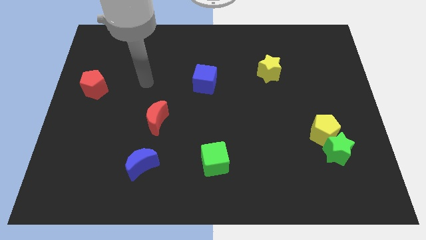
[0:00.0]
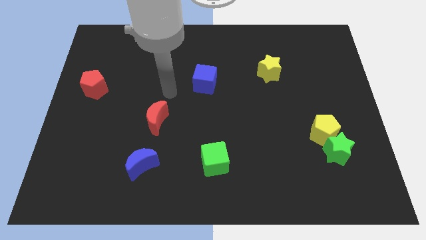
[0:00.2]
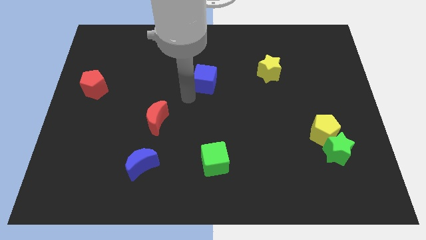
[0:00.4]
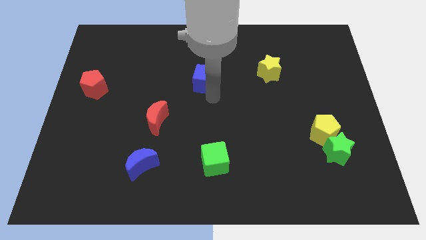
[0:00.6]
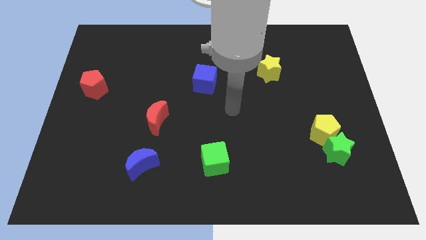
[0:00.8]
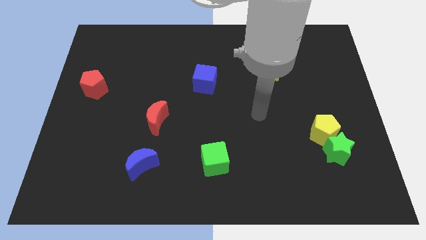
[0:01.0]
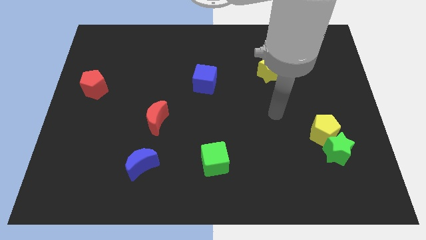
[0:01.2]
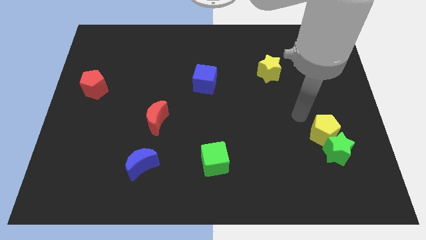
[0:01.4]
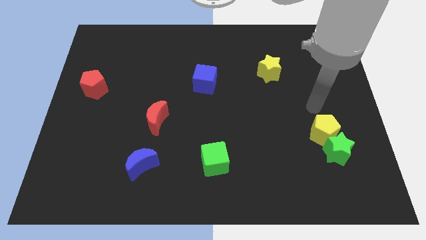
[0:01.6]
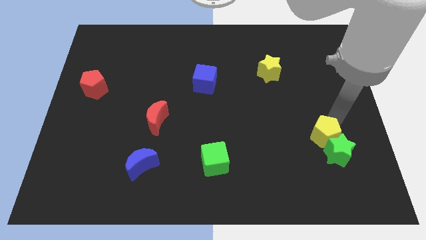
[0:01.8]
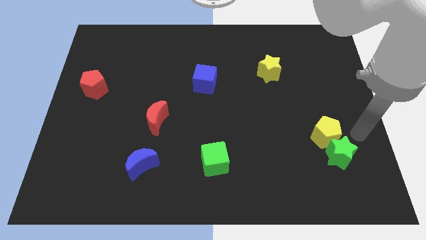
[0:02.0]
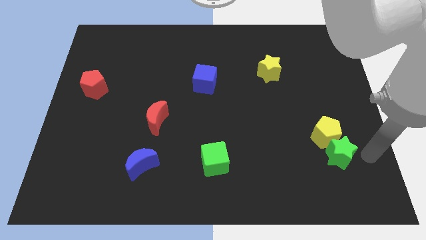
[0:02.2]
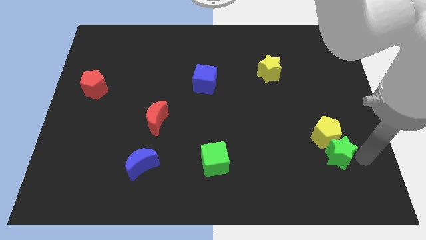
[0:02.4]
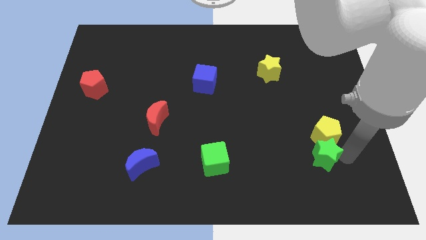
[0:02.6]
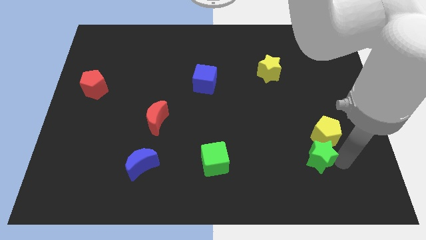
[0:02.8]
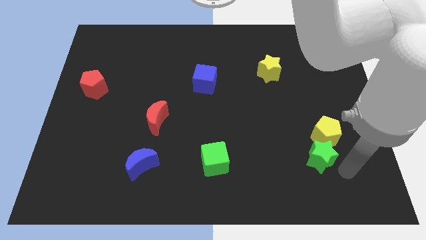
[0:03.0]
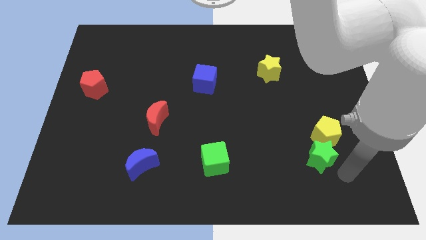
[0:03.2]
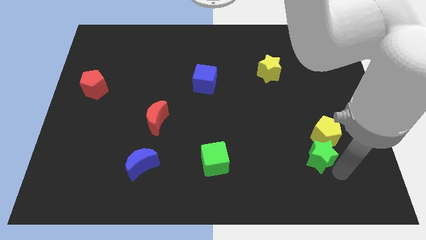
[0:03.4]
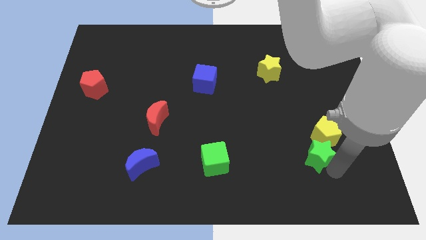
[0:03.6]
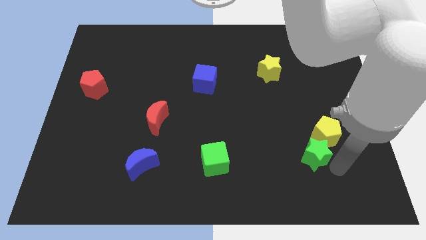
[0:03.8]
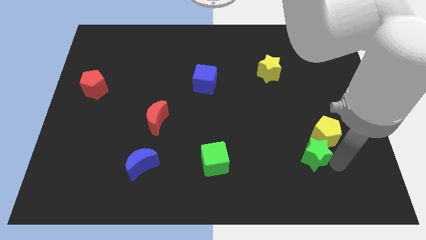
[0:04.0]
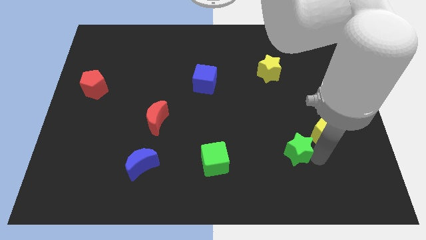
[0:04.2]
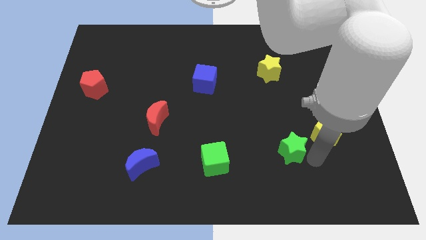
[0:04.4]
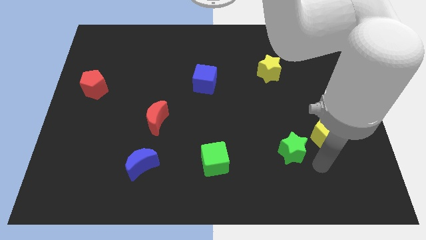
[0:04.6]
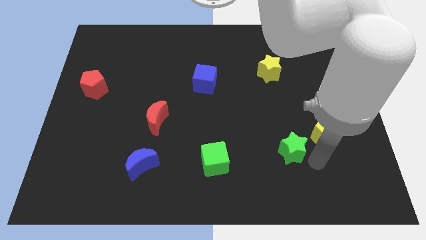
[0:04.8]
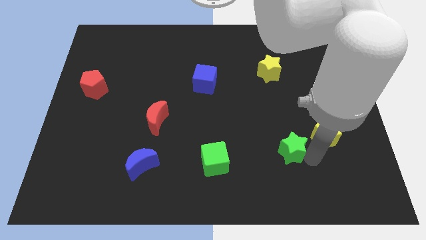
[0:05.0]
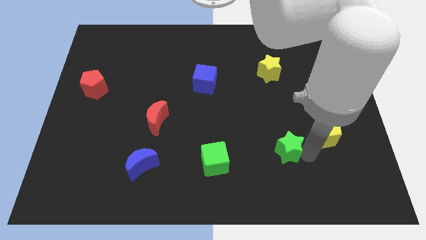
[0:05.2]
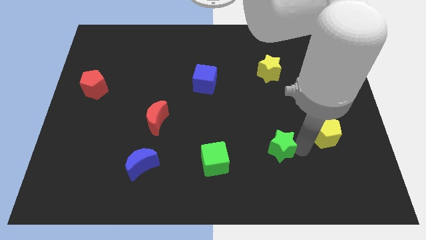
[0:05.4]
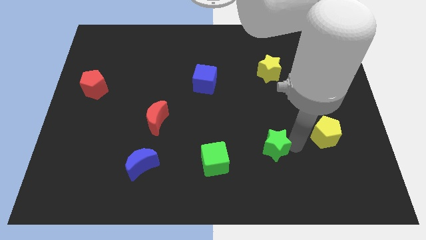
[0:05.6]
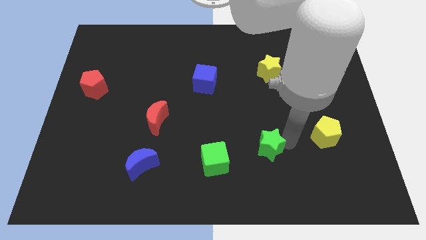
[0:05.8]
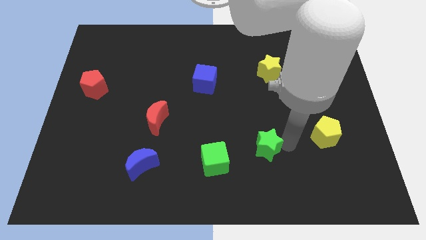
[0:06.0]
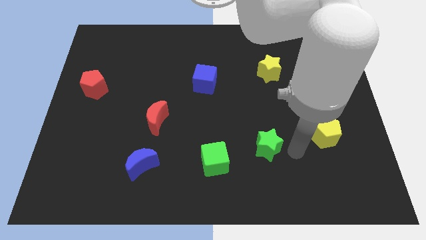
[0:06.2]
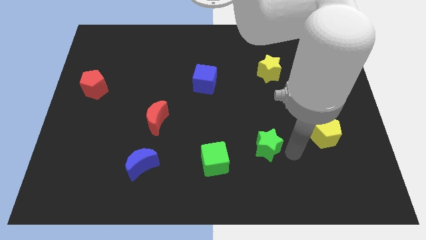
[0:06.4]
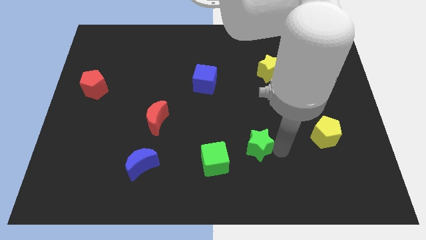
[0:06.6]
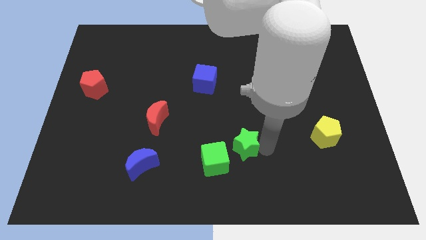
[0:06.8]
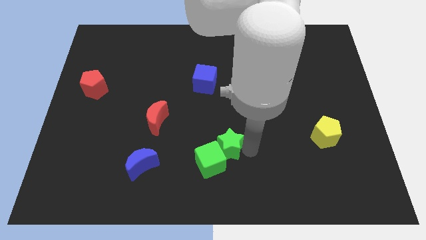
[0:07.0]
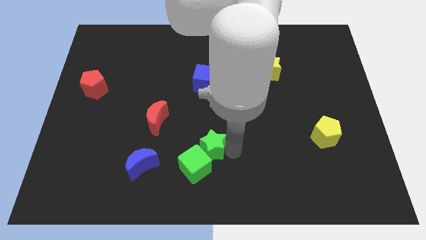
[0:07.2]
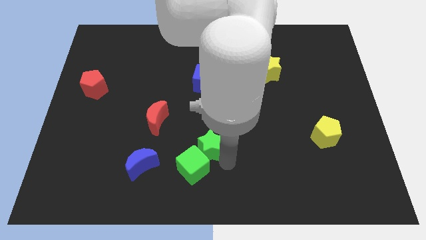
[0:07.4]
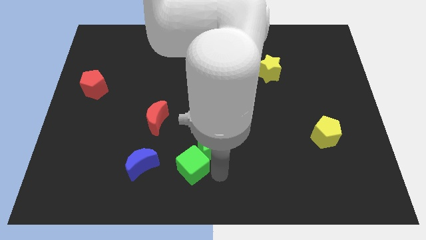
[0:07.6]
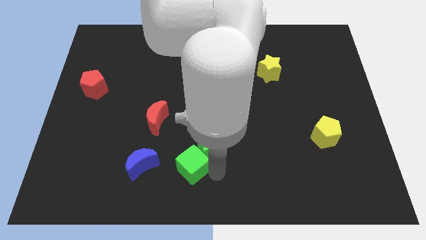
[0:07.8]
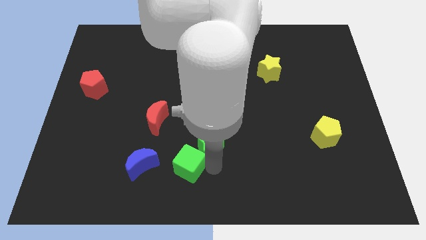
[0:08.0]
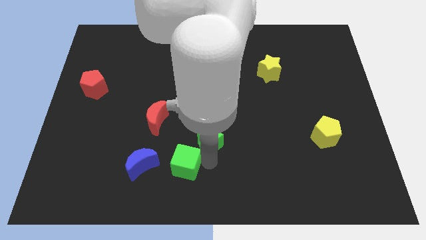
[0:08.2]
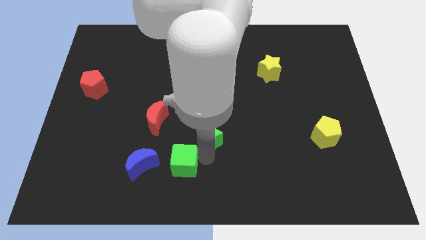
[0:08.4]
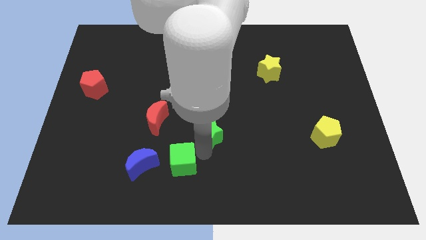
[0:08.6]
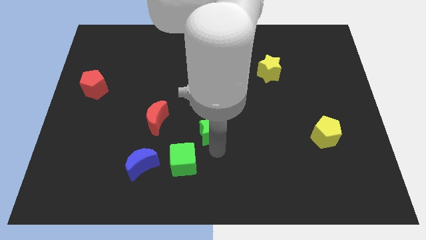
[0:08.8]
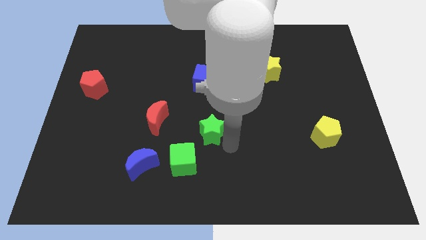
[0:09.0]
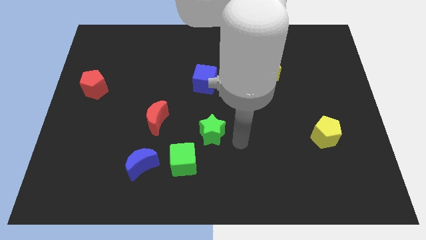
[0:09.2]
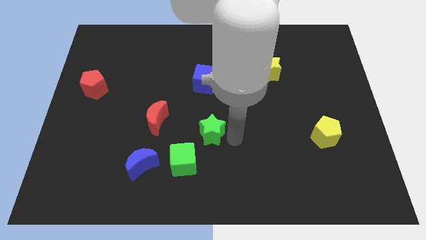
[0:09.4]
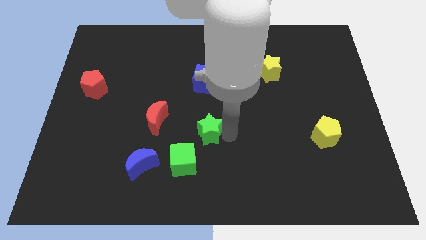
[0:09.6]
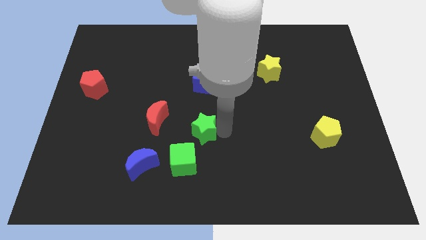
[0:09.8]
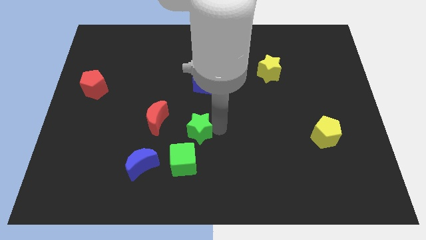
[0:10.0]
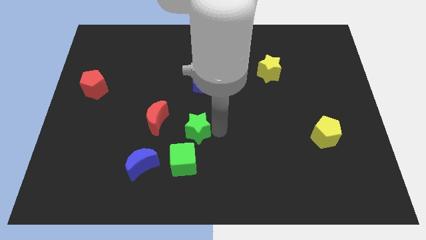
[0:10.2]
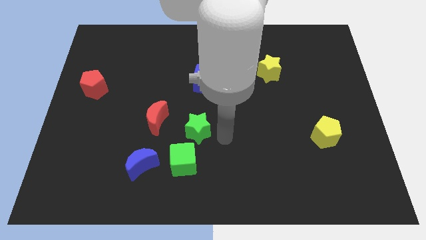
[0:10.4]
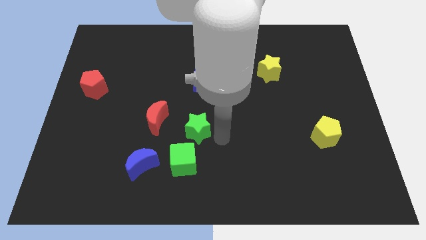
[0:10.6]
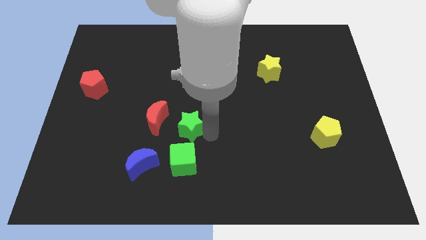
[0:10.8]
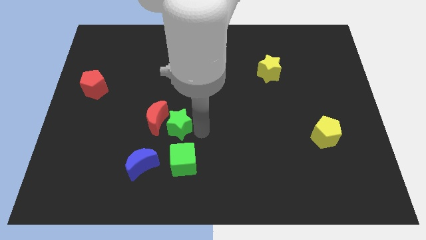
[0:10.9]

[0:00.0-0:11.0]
slide the green star towards the red moon

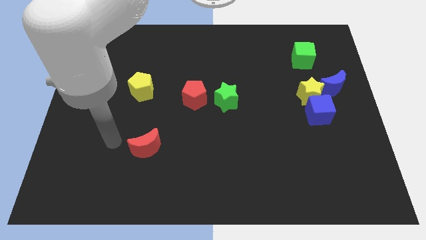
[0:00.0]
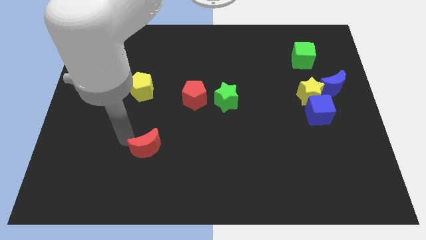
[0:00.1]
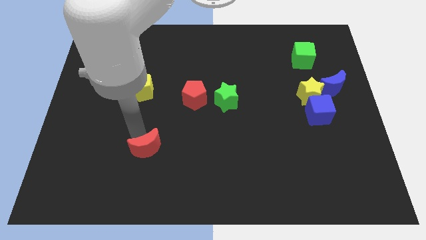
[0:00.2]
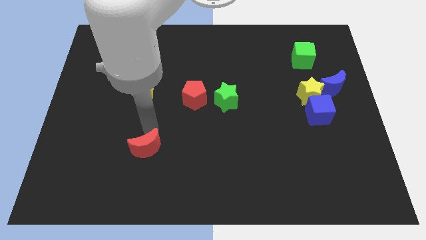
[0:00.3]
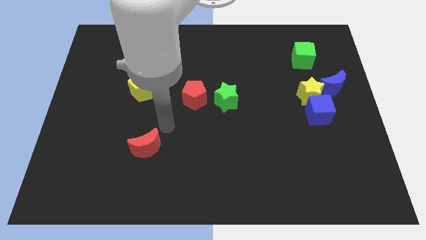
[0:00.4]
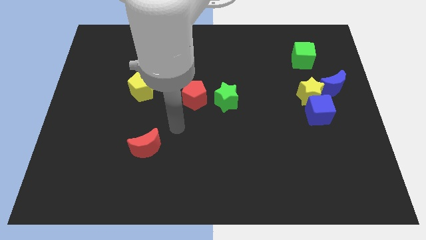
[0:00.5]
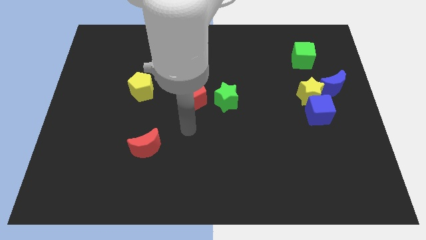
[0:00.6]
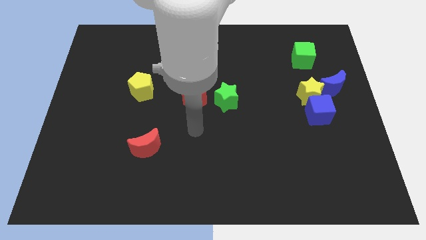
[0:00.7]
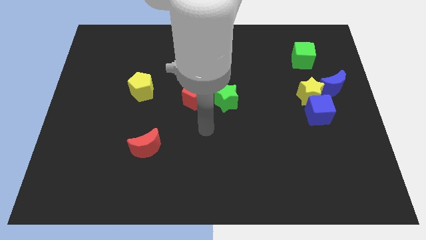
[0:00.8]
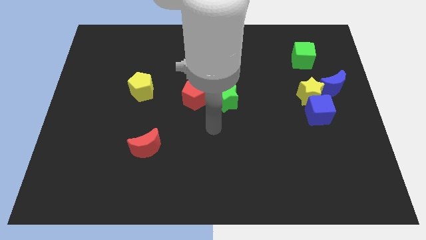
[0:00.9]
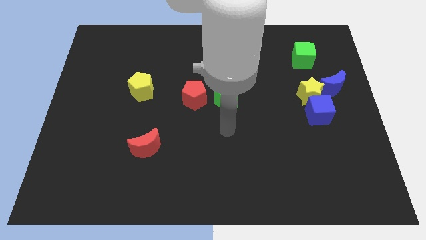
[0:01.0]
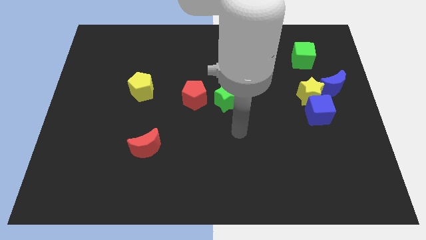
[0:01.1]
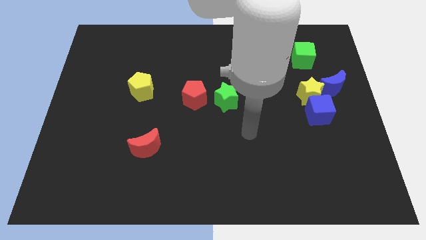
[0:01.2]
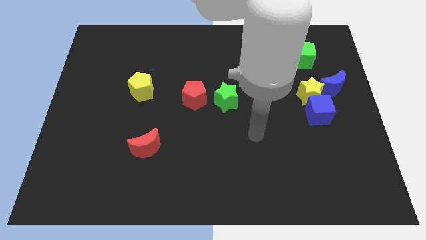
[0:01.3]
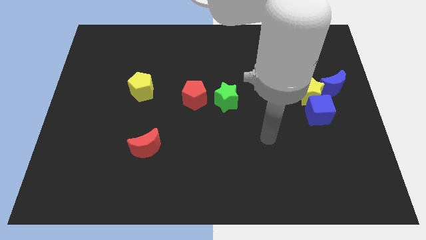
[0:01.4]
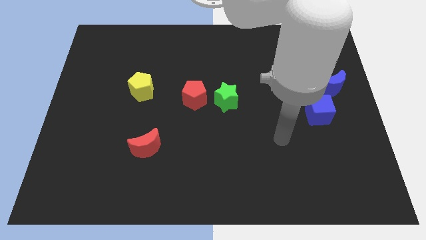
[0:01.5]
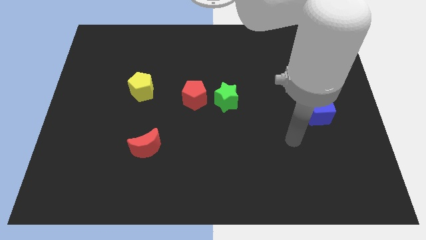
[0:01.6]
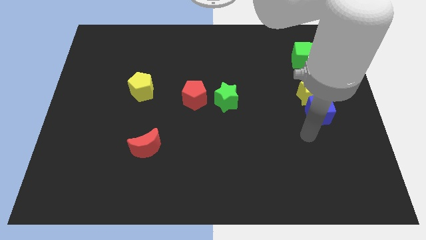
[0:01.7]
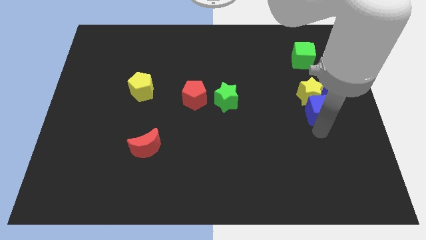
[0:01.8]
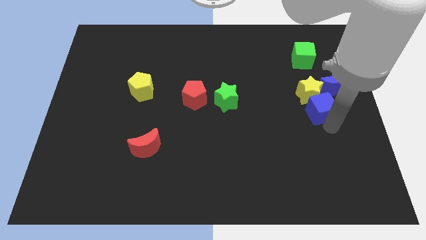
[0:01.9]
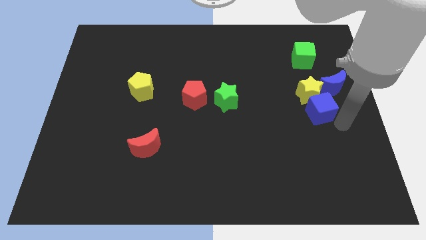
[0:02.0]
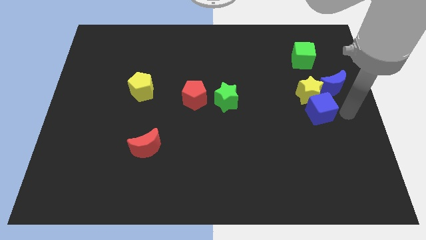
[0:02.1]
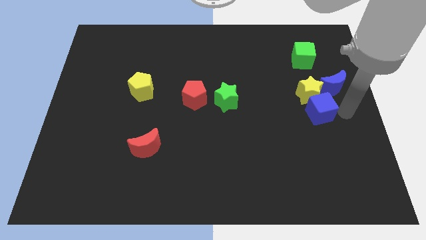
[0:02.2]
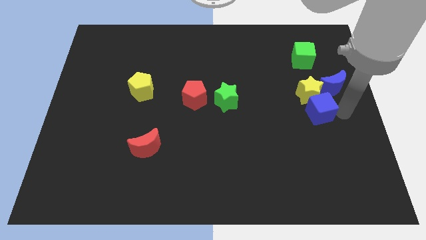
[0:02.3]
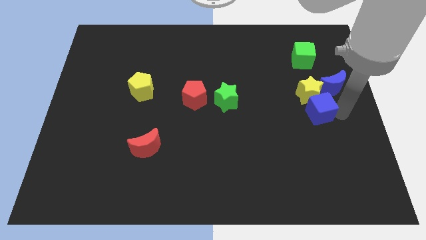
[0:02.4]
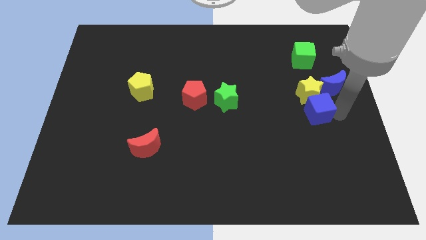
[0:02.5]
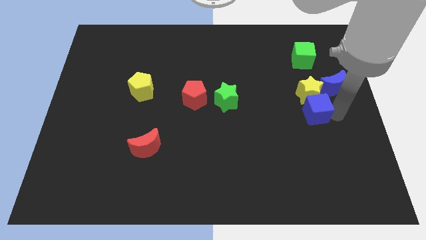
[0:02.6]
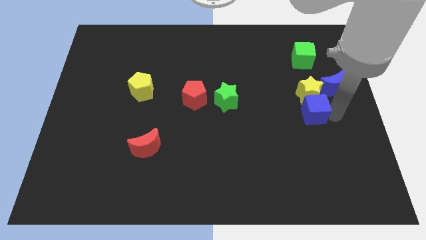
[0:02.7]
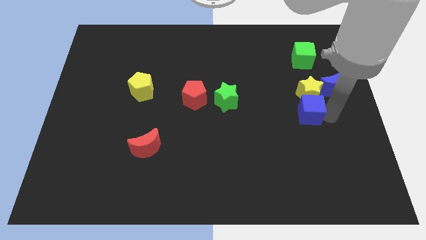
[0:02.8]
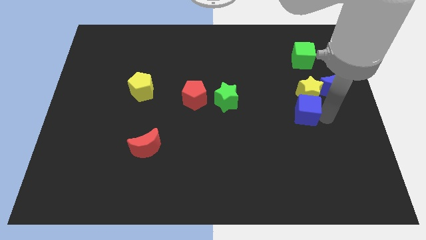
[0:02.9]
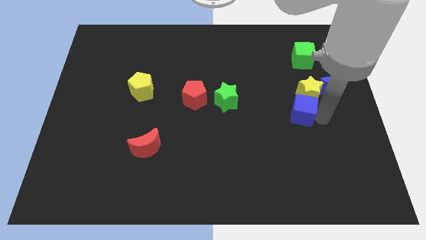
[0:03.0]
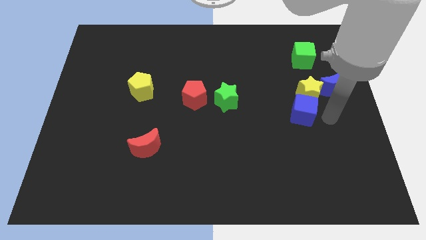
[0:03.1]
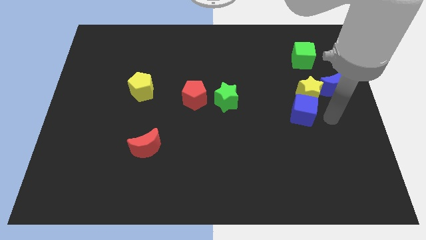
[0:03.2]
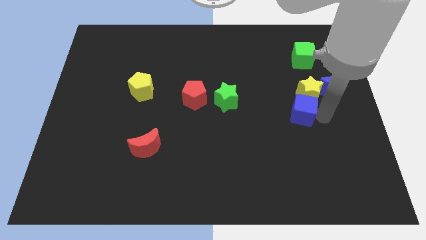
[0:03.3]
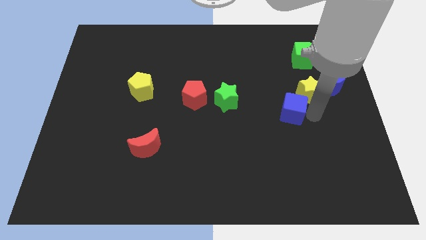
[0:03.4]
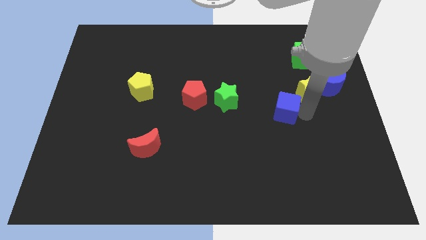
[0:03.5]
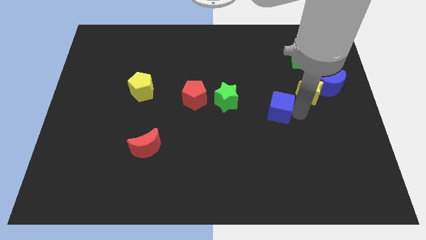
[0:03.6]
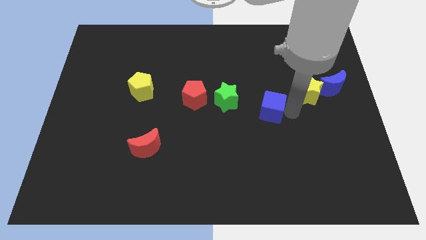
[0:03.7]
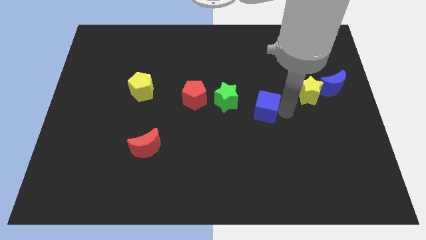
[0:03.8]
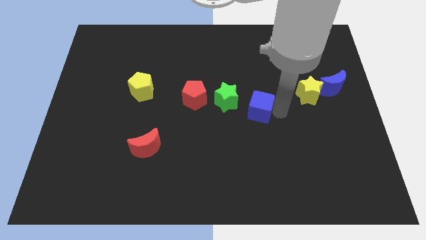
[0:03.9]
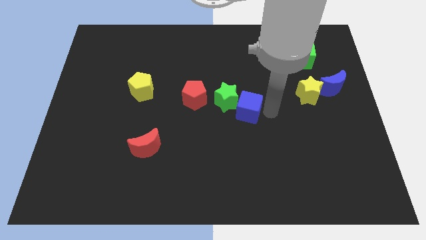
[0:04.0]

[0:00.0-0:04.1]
put the blue cube next to the green star
